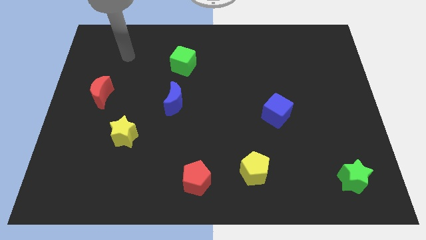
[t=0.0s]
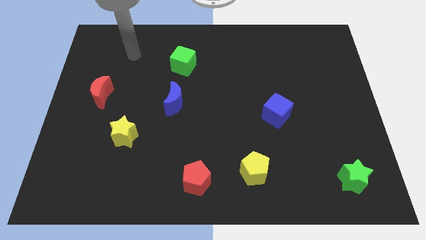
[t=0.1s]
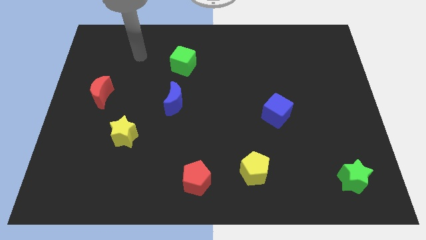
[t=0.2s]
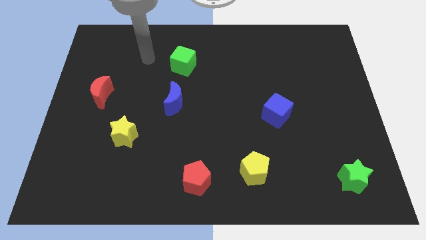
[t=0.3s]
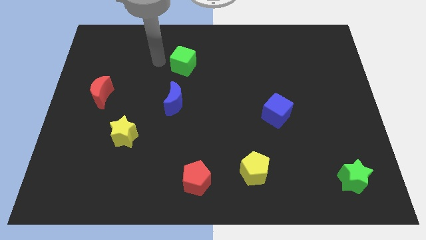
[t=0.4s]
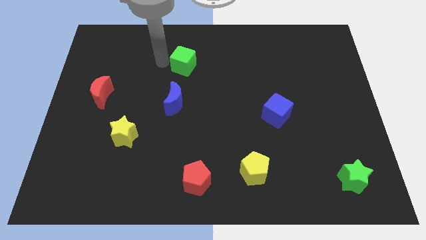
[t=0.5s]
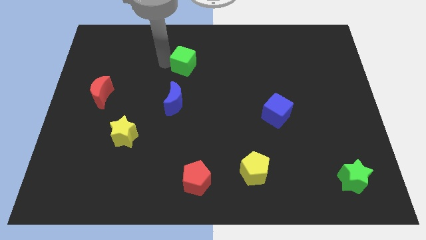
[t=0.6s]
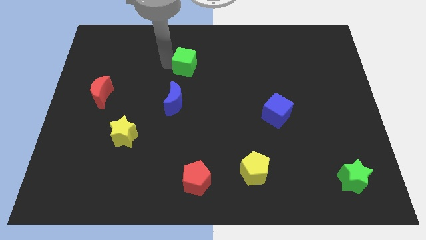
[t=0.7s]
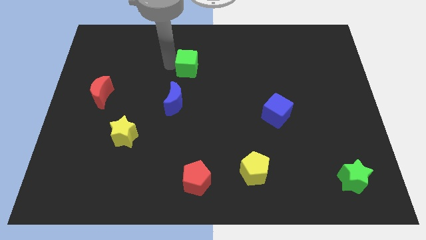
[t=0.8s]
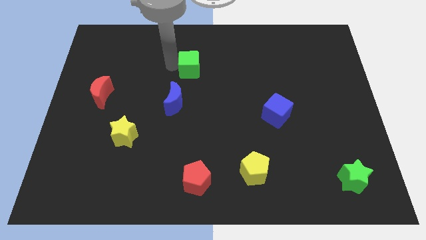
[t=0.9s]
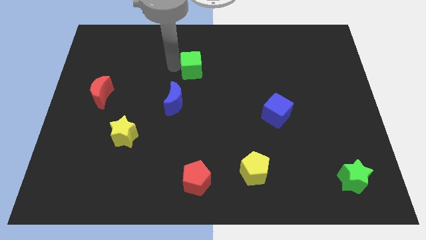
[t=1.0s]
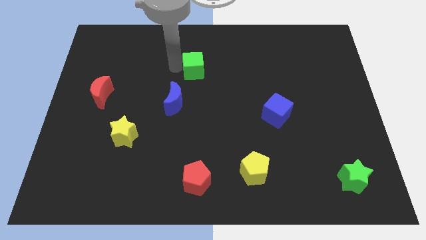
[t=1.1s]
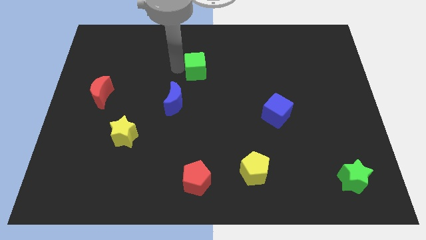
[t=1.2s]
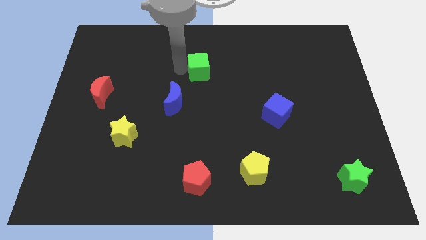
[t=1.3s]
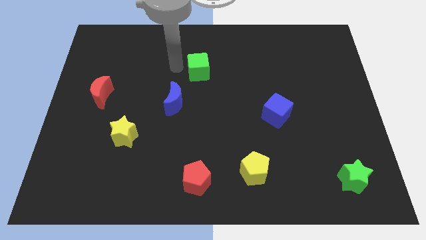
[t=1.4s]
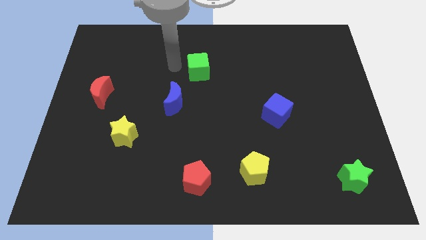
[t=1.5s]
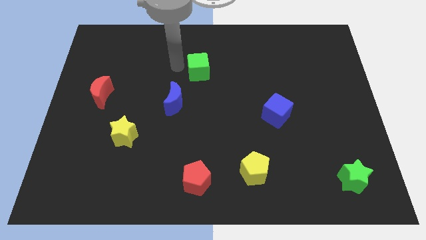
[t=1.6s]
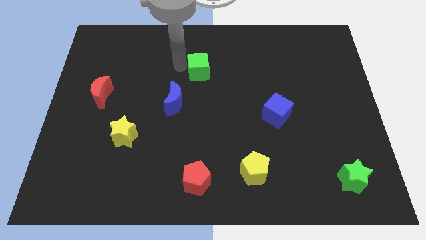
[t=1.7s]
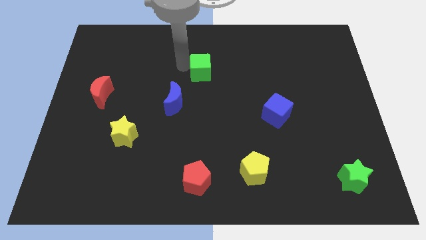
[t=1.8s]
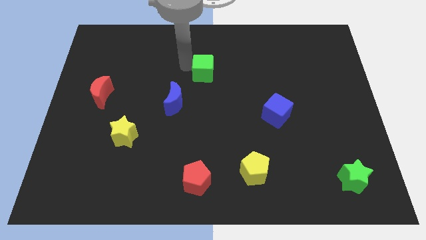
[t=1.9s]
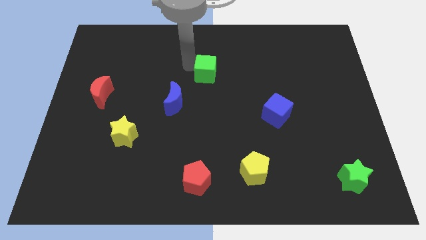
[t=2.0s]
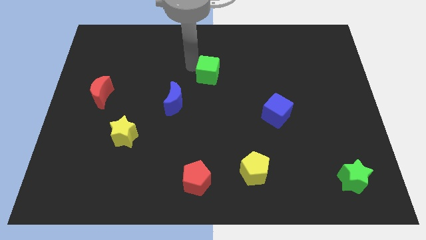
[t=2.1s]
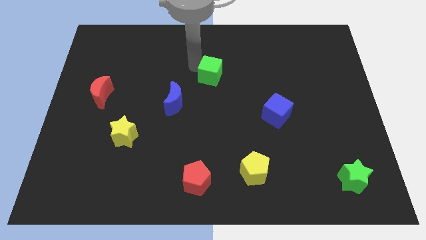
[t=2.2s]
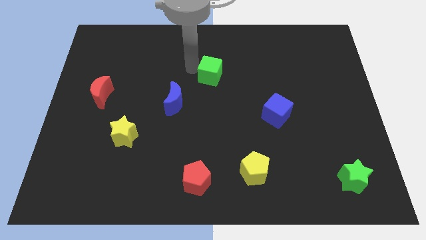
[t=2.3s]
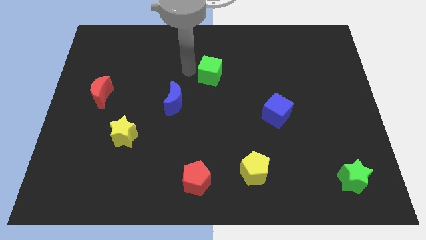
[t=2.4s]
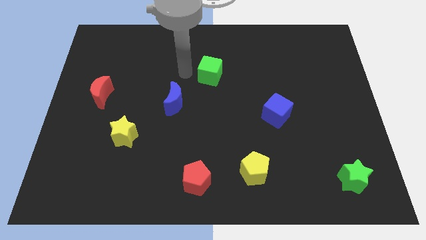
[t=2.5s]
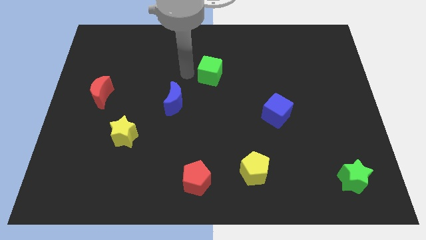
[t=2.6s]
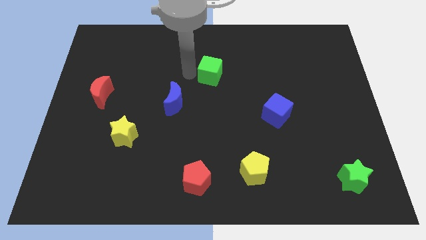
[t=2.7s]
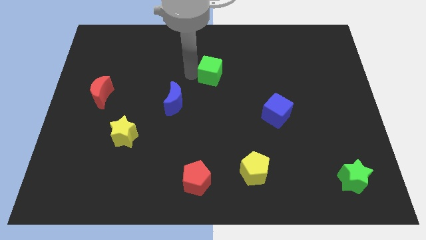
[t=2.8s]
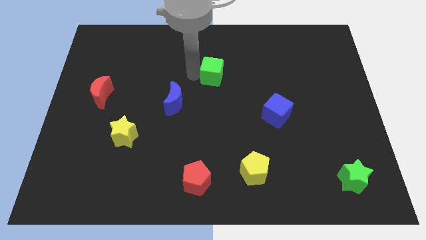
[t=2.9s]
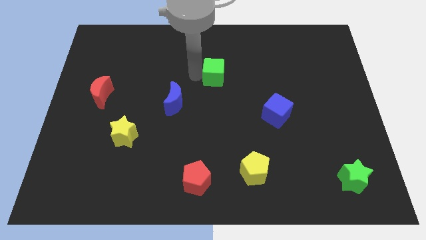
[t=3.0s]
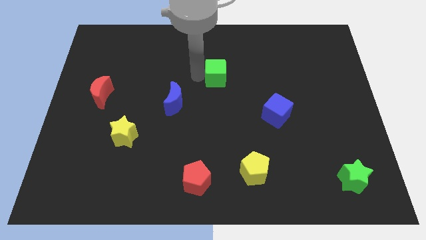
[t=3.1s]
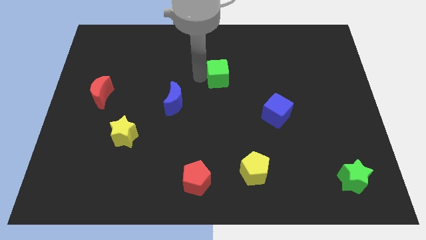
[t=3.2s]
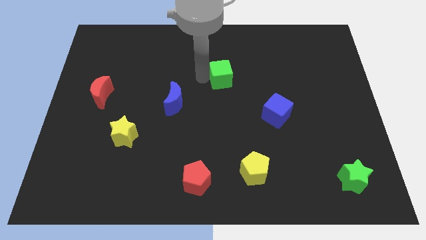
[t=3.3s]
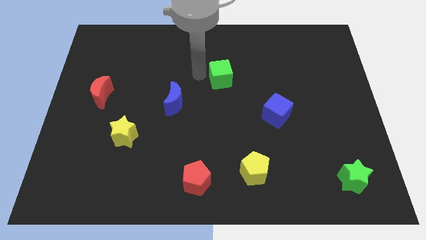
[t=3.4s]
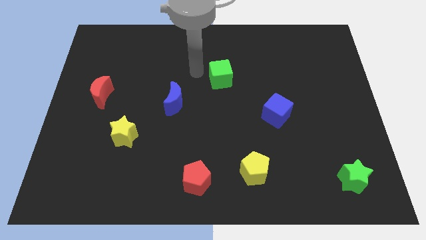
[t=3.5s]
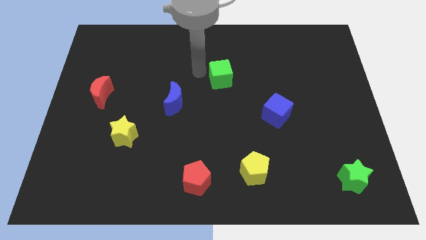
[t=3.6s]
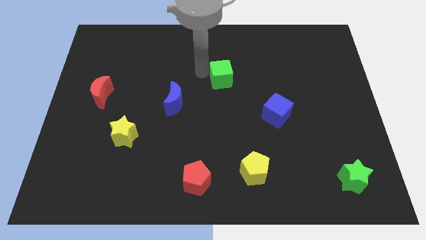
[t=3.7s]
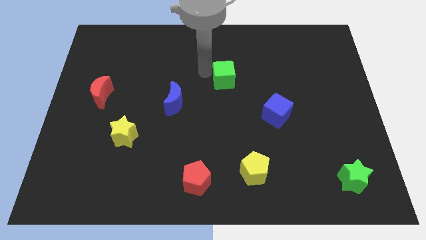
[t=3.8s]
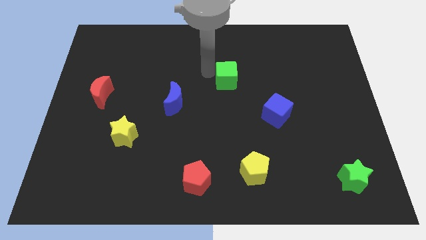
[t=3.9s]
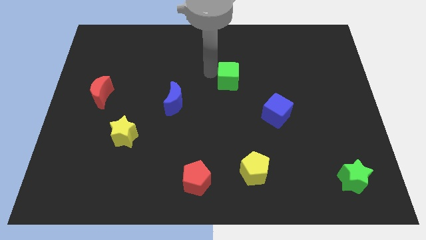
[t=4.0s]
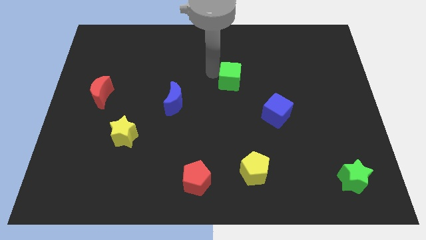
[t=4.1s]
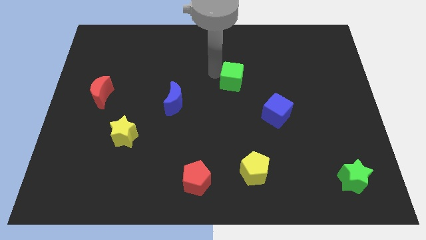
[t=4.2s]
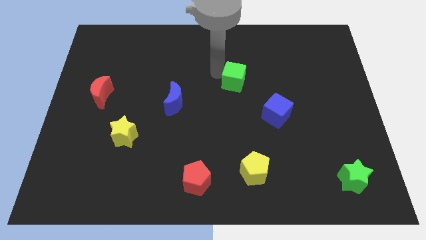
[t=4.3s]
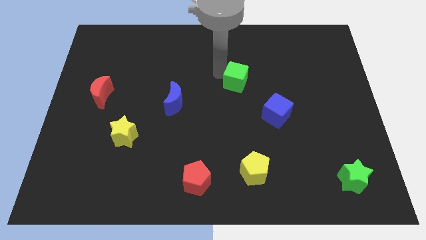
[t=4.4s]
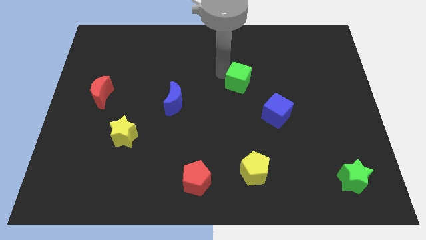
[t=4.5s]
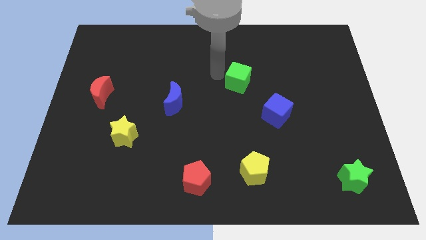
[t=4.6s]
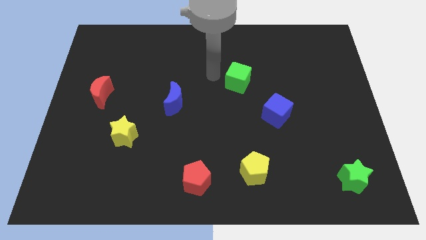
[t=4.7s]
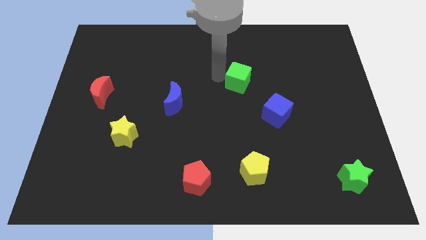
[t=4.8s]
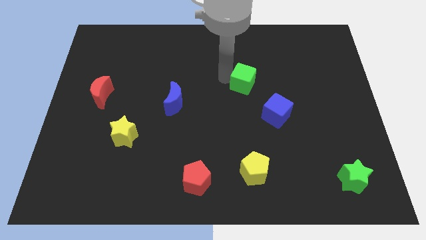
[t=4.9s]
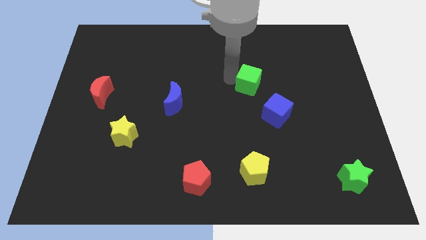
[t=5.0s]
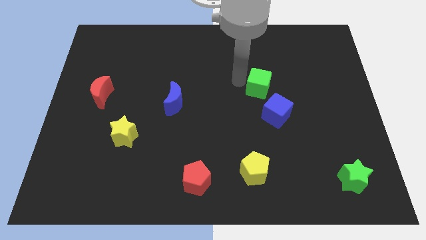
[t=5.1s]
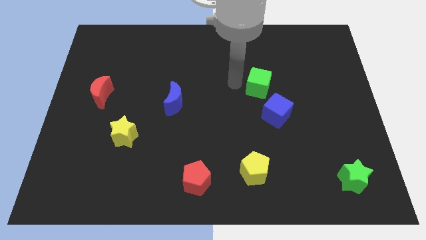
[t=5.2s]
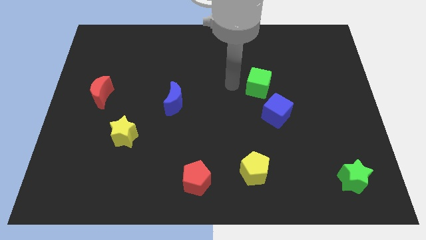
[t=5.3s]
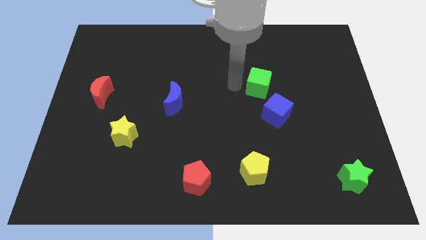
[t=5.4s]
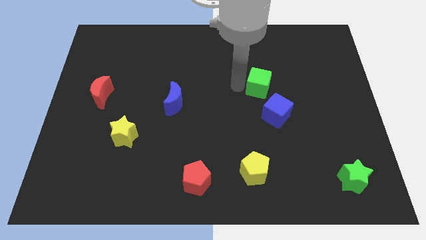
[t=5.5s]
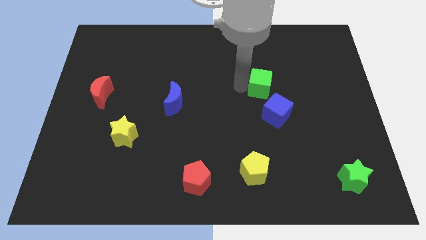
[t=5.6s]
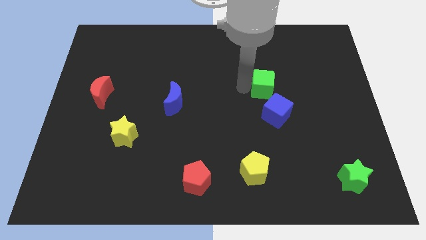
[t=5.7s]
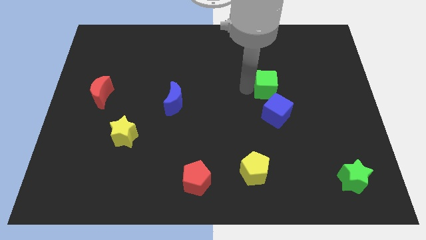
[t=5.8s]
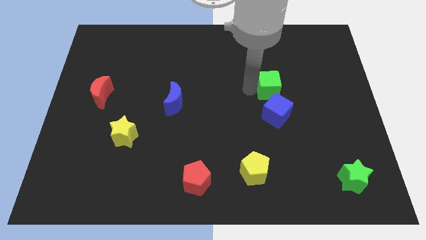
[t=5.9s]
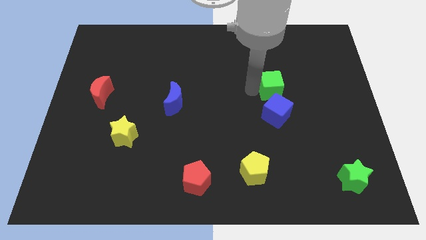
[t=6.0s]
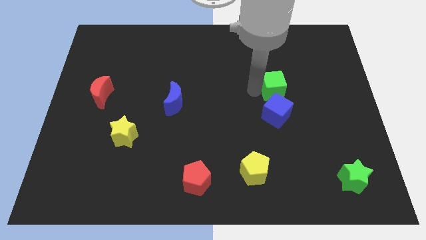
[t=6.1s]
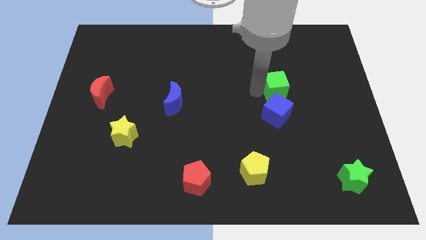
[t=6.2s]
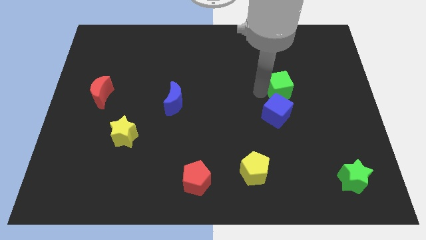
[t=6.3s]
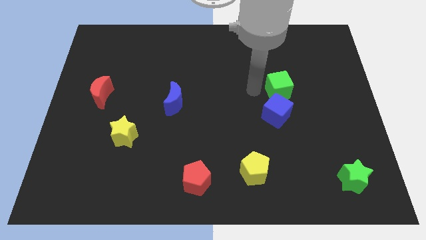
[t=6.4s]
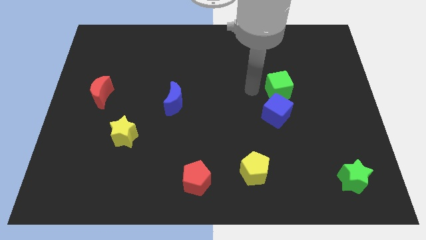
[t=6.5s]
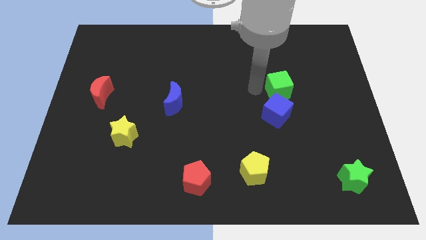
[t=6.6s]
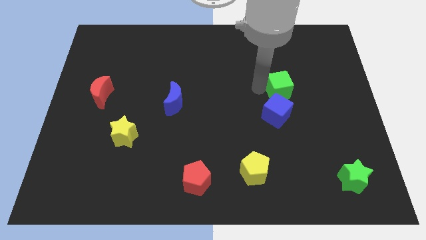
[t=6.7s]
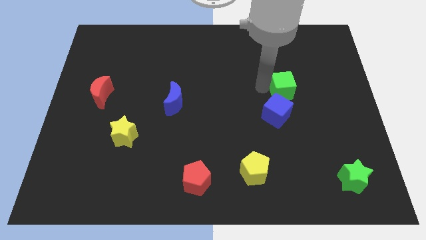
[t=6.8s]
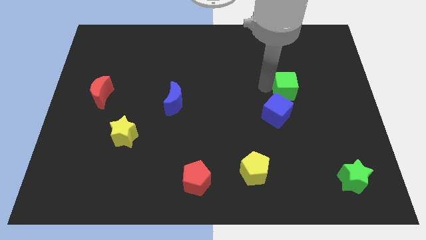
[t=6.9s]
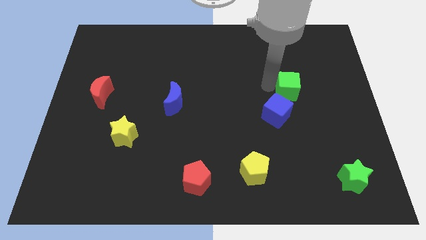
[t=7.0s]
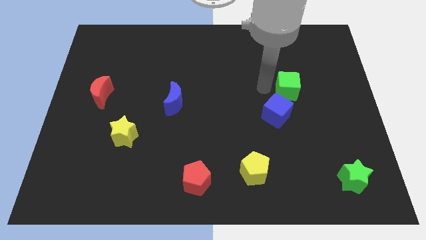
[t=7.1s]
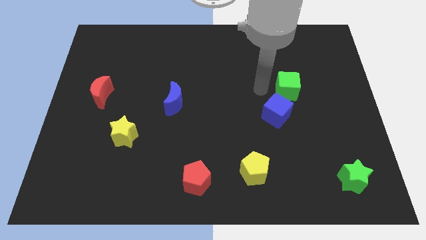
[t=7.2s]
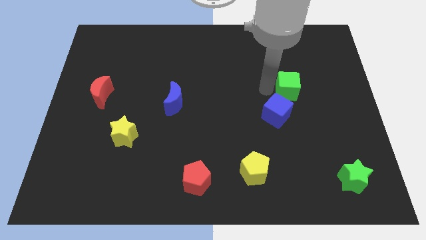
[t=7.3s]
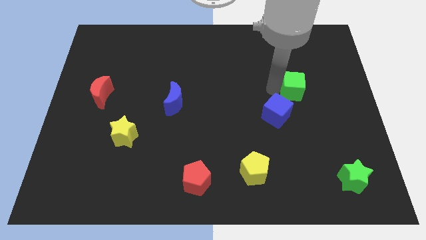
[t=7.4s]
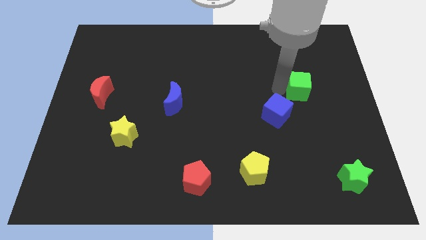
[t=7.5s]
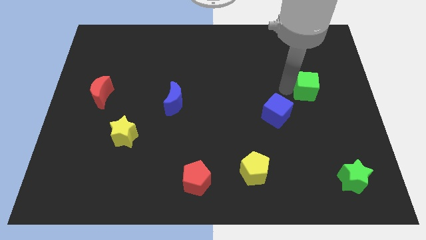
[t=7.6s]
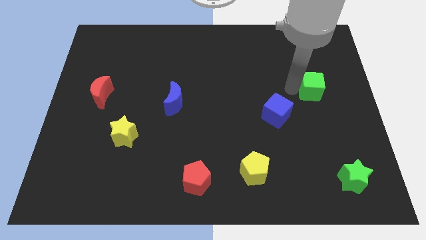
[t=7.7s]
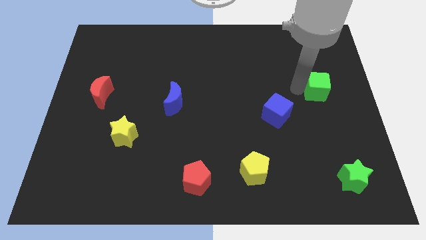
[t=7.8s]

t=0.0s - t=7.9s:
push the green cube to the right side of the board

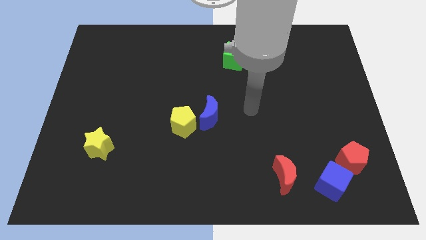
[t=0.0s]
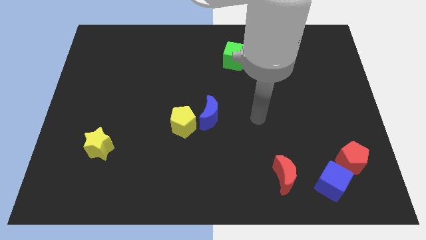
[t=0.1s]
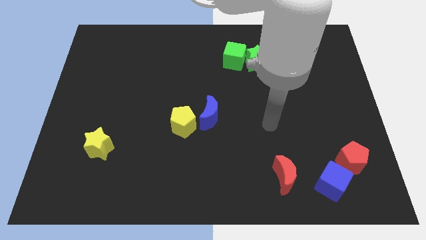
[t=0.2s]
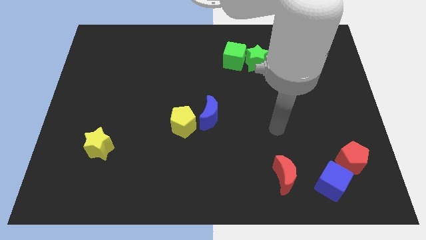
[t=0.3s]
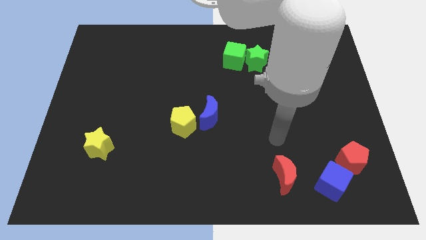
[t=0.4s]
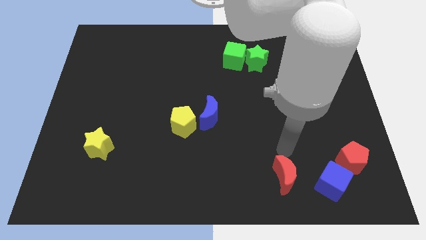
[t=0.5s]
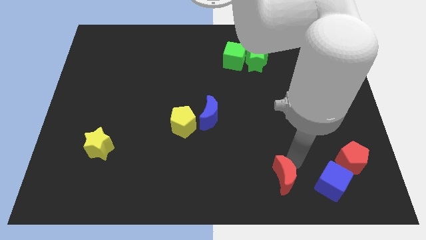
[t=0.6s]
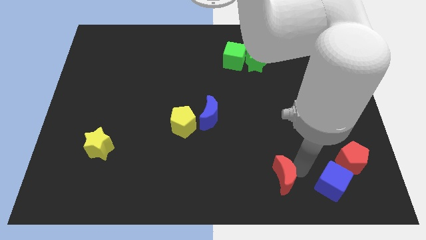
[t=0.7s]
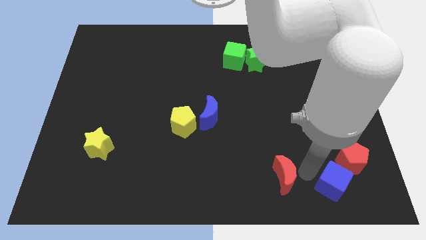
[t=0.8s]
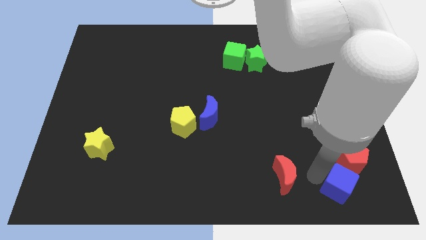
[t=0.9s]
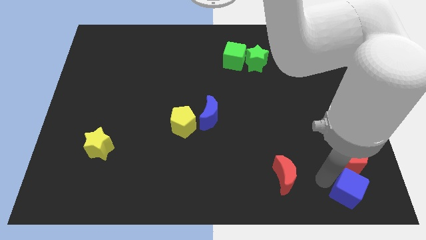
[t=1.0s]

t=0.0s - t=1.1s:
push the blue cube to the bottom right of the board
